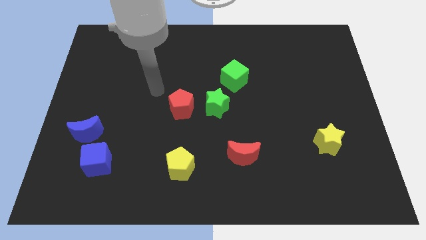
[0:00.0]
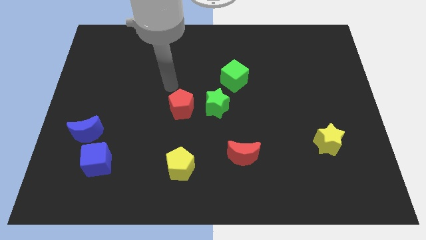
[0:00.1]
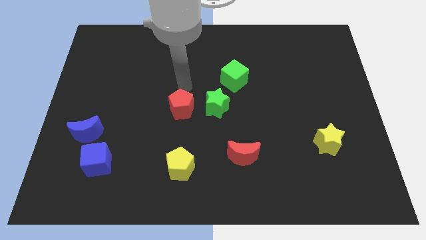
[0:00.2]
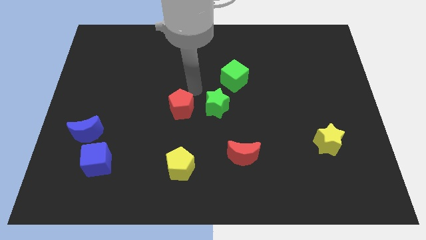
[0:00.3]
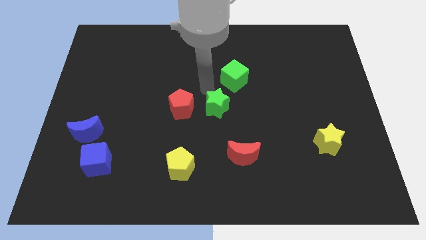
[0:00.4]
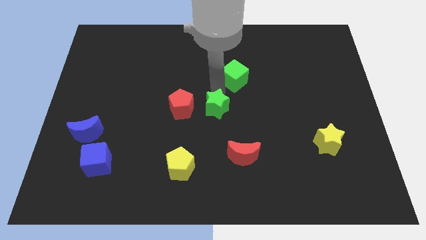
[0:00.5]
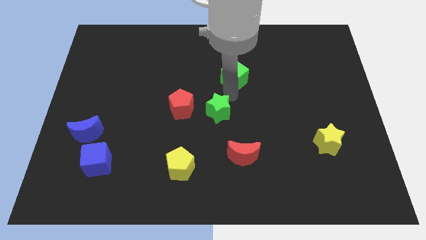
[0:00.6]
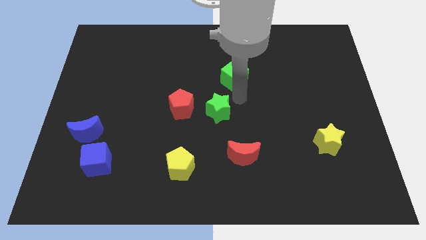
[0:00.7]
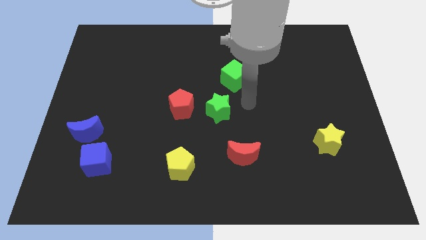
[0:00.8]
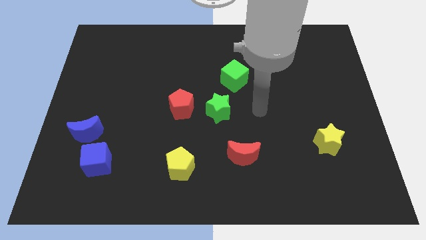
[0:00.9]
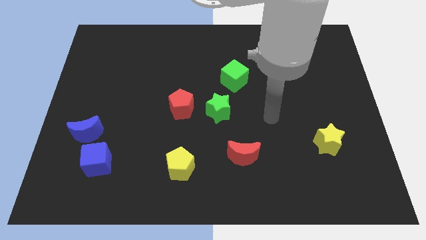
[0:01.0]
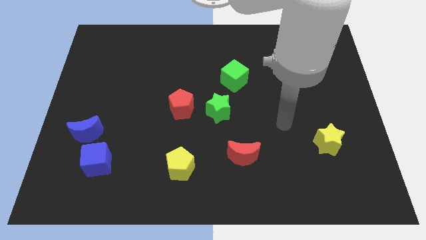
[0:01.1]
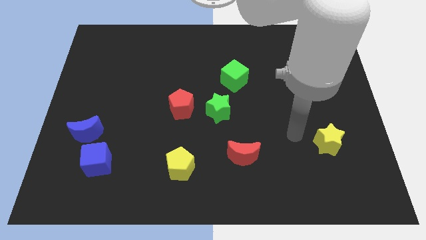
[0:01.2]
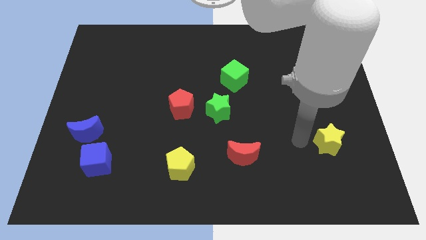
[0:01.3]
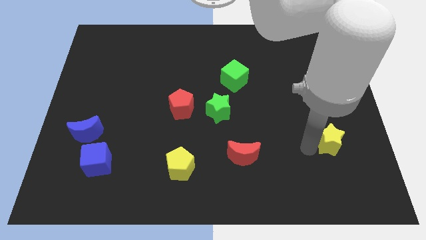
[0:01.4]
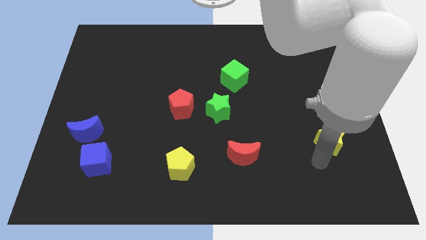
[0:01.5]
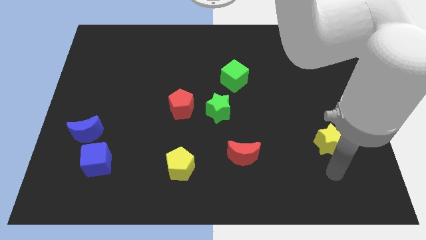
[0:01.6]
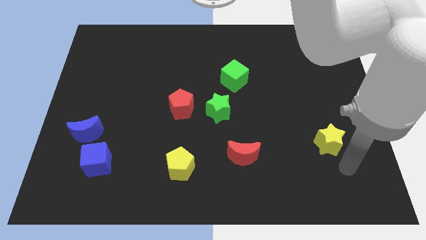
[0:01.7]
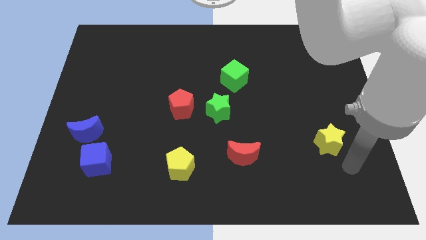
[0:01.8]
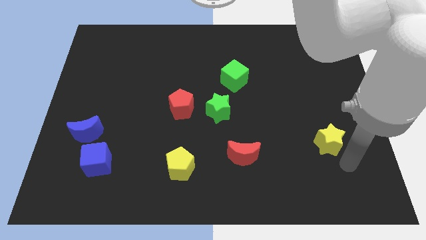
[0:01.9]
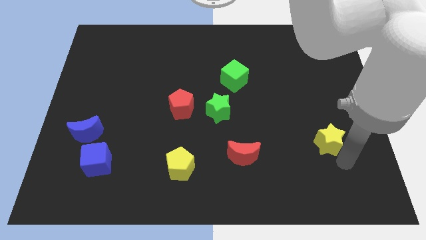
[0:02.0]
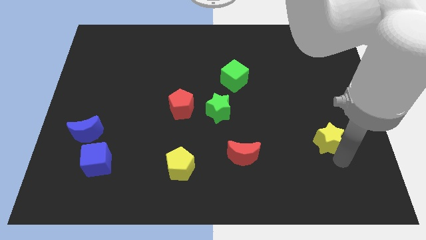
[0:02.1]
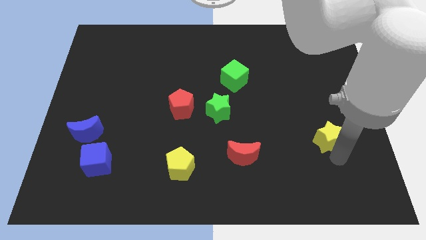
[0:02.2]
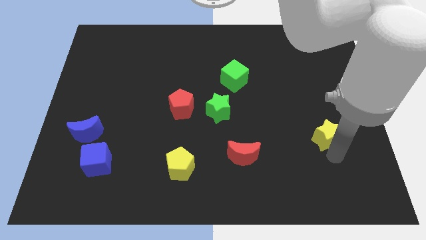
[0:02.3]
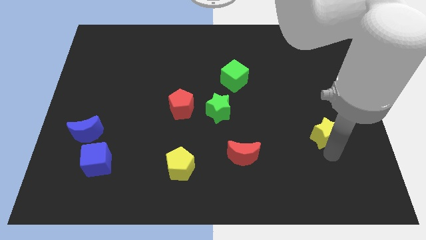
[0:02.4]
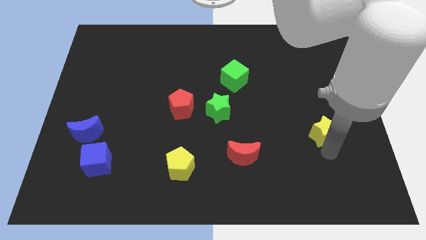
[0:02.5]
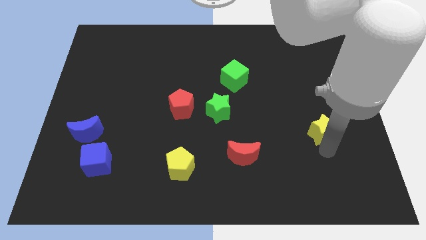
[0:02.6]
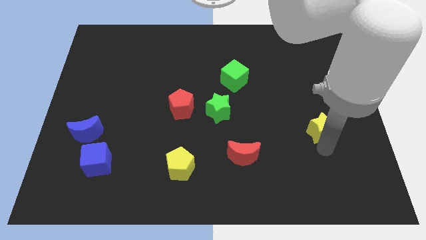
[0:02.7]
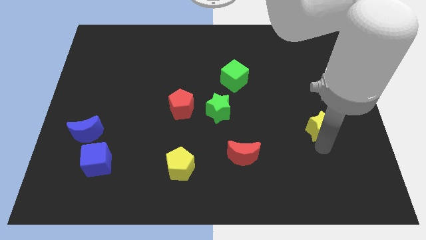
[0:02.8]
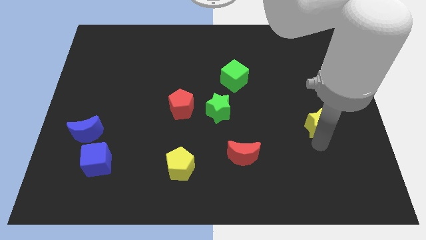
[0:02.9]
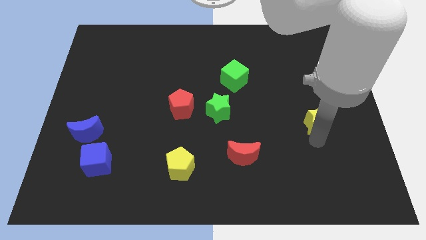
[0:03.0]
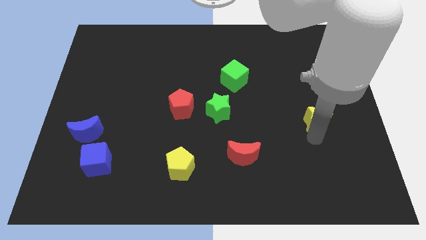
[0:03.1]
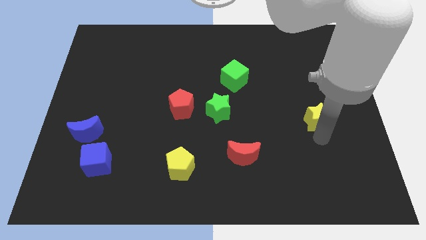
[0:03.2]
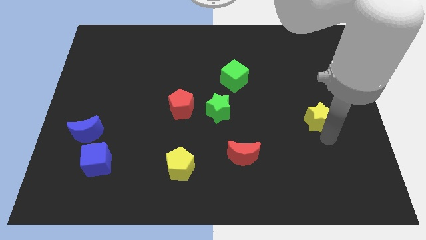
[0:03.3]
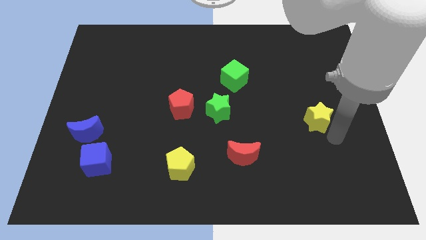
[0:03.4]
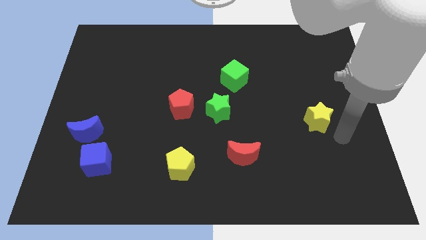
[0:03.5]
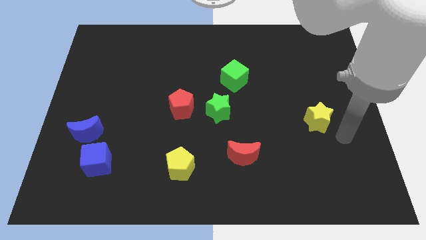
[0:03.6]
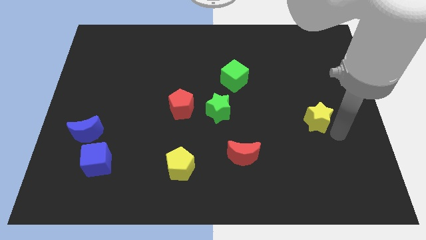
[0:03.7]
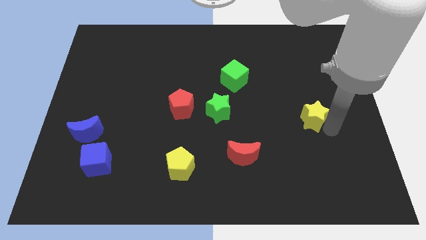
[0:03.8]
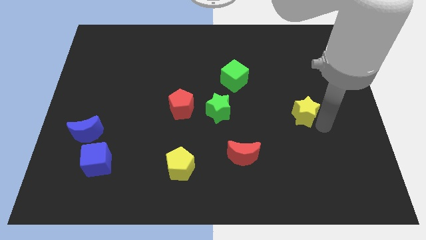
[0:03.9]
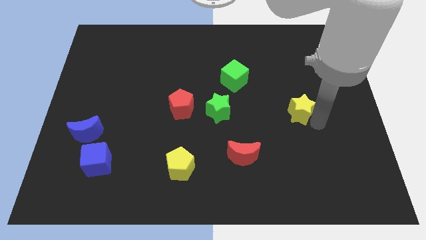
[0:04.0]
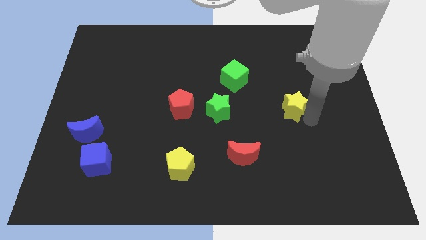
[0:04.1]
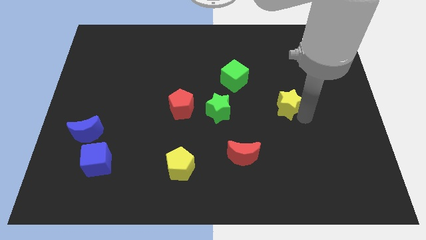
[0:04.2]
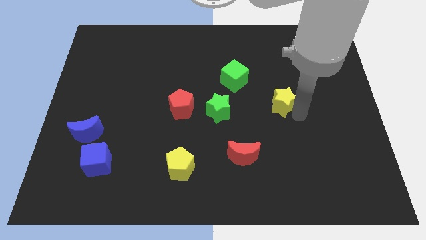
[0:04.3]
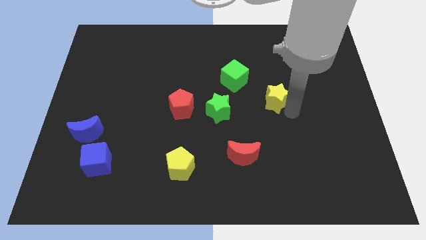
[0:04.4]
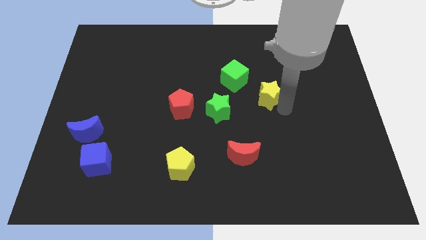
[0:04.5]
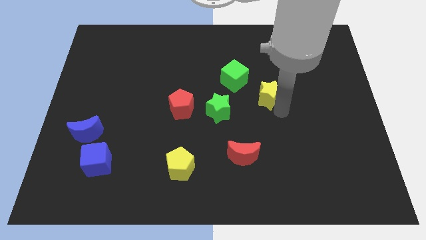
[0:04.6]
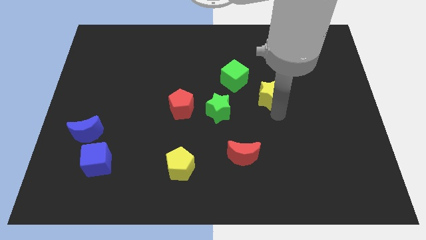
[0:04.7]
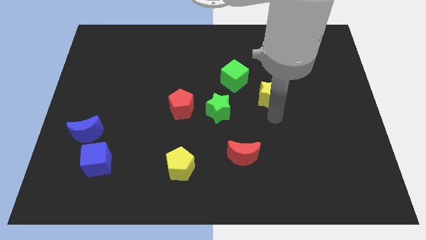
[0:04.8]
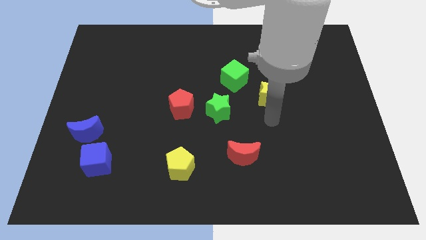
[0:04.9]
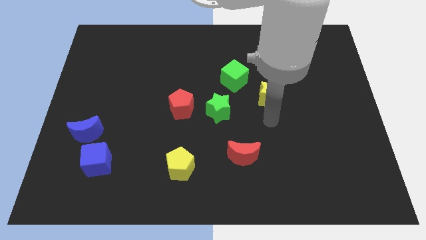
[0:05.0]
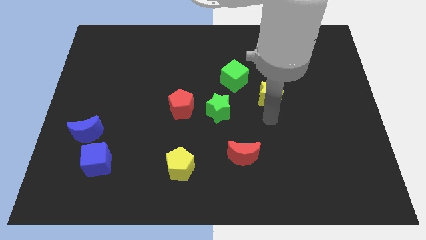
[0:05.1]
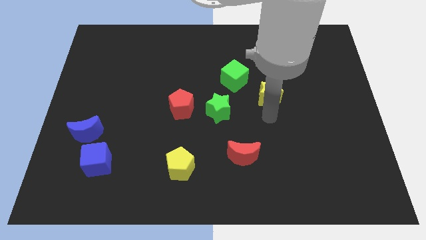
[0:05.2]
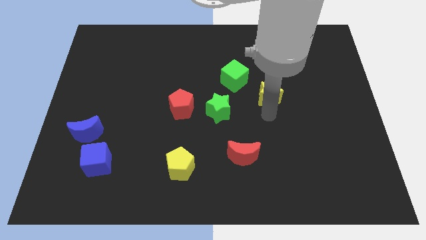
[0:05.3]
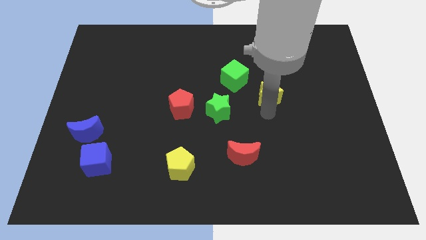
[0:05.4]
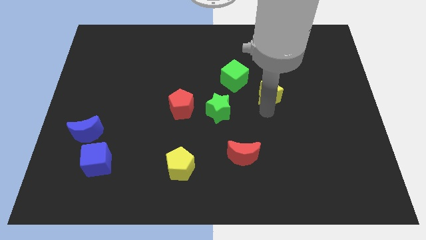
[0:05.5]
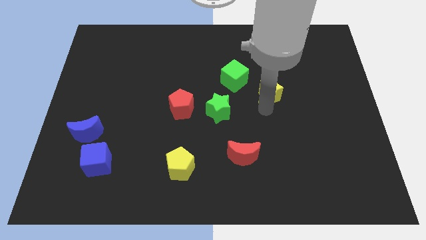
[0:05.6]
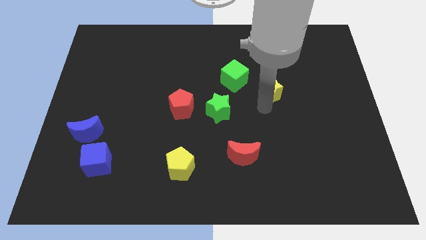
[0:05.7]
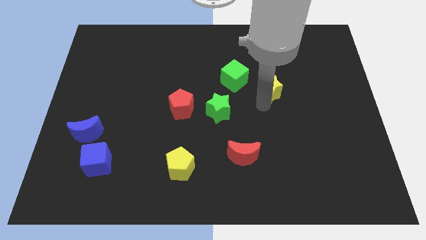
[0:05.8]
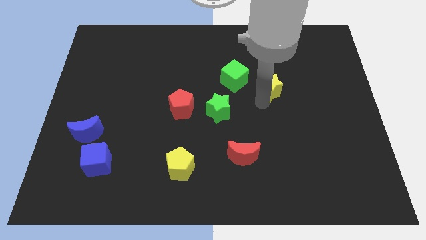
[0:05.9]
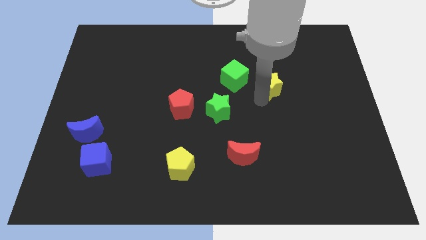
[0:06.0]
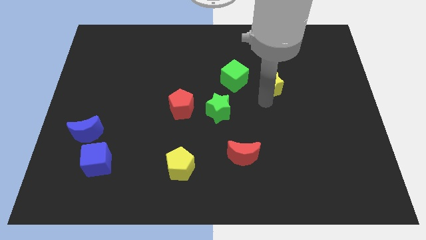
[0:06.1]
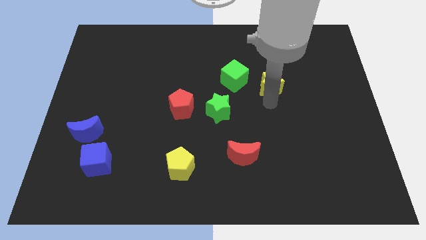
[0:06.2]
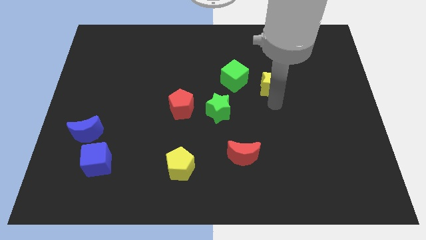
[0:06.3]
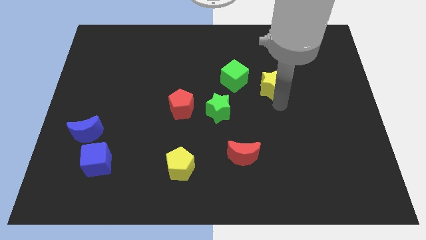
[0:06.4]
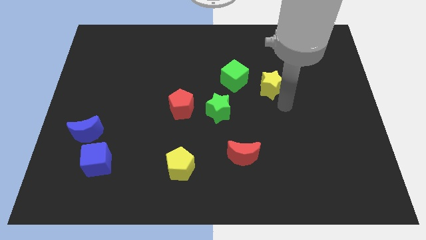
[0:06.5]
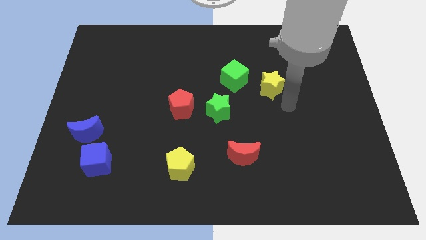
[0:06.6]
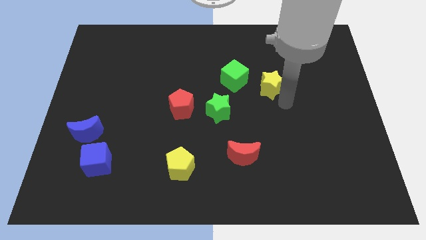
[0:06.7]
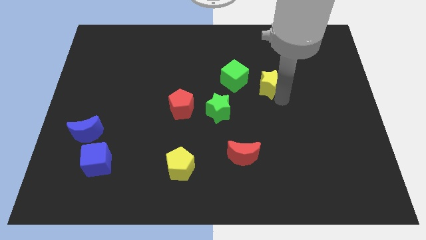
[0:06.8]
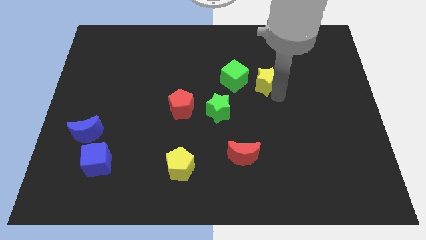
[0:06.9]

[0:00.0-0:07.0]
move the yellow star up and to the left diagonally

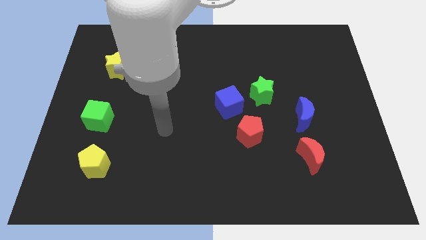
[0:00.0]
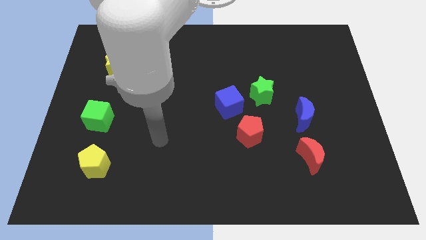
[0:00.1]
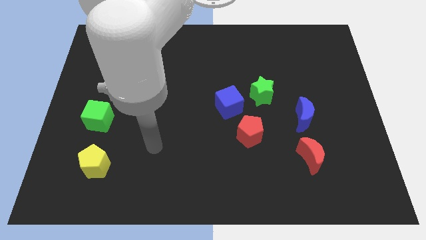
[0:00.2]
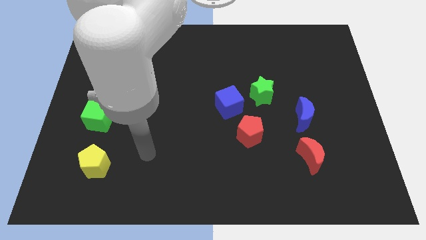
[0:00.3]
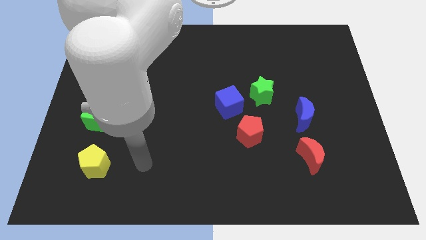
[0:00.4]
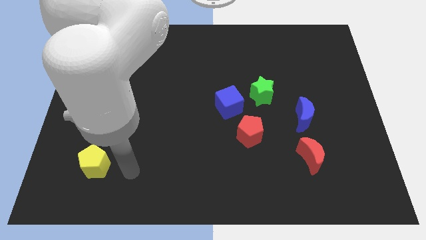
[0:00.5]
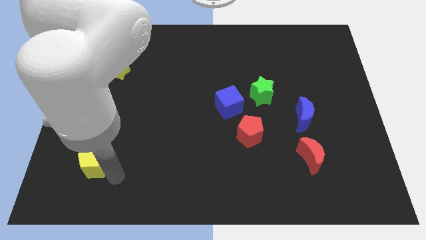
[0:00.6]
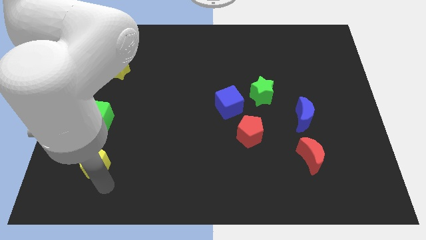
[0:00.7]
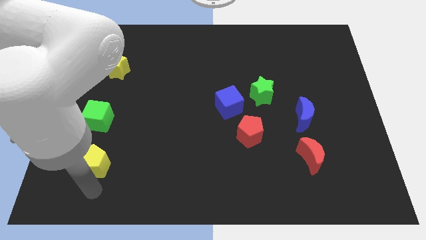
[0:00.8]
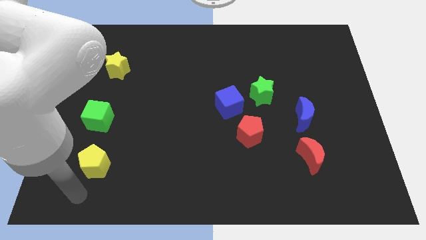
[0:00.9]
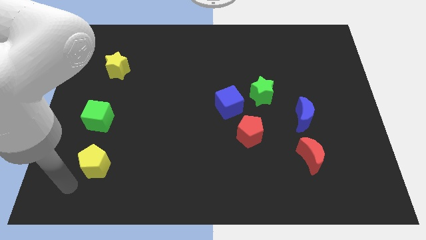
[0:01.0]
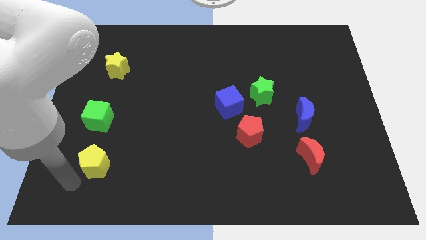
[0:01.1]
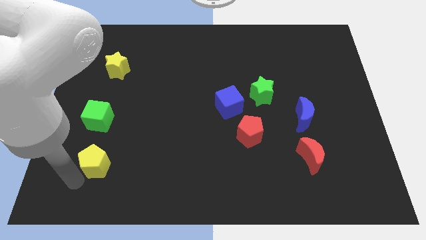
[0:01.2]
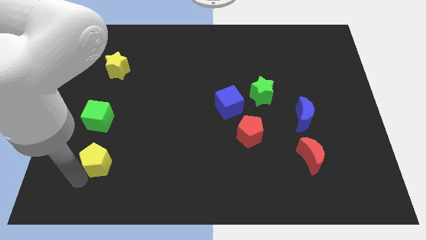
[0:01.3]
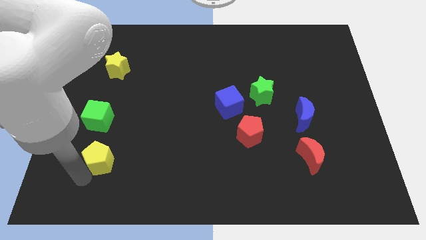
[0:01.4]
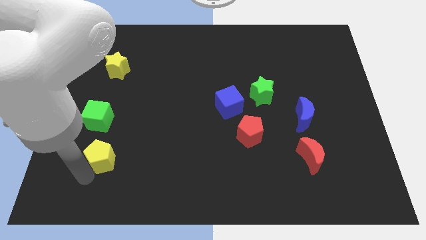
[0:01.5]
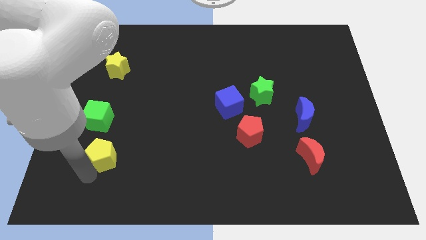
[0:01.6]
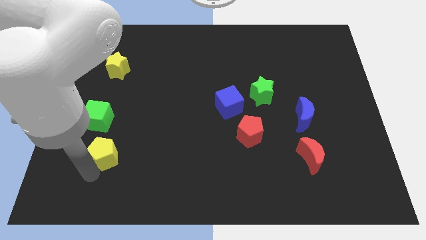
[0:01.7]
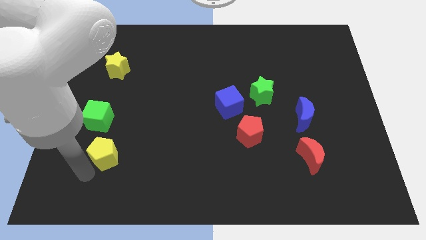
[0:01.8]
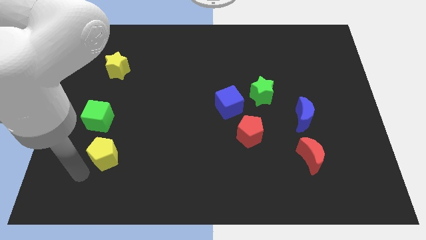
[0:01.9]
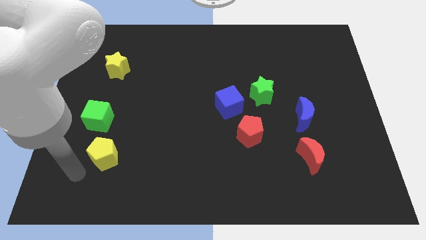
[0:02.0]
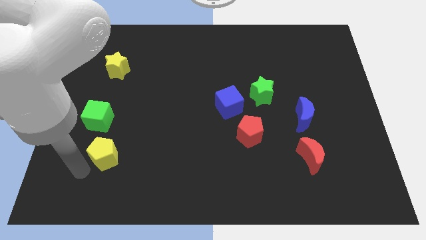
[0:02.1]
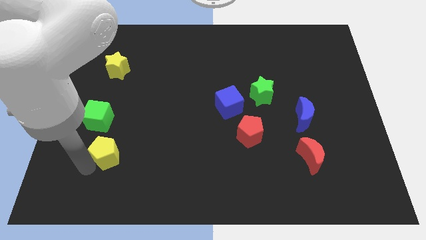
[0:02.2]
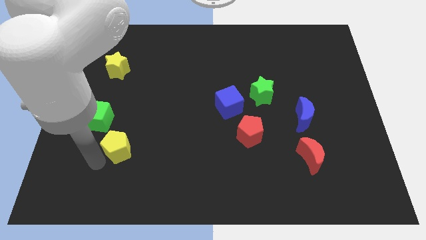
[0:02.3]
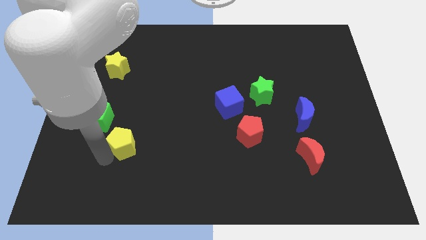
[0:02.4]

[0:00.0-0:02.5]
move the yellow pentagon upwards and right somewhat
